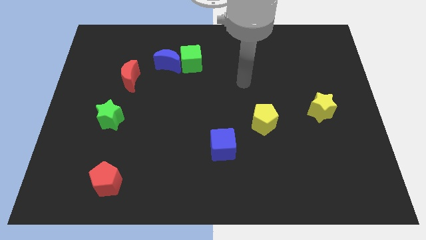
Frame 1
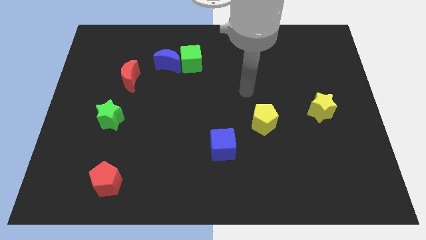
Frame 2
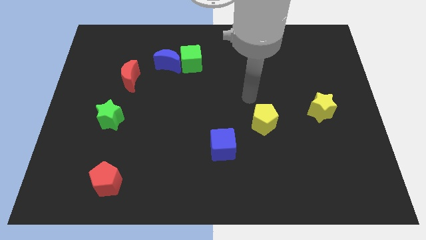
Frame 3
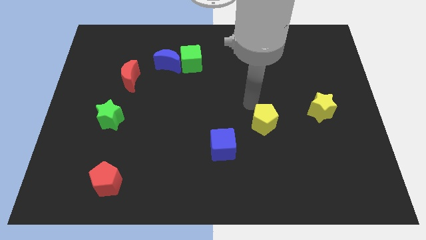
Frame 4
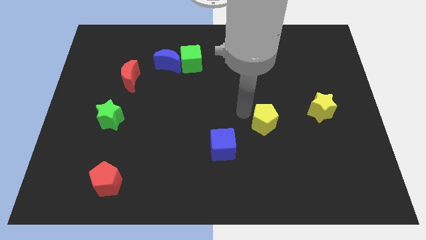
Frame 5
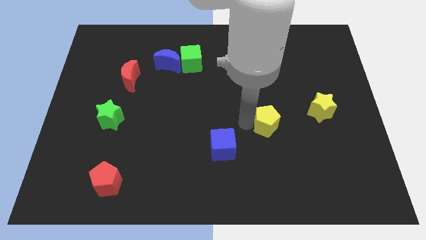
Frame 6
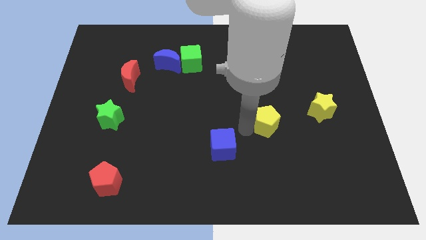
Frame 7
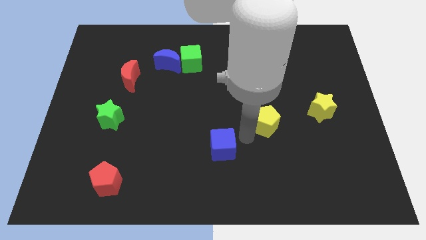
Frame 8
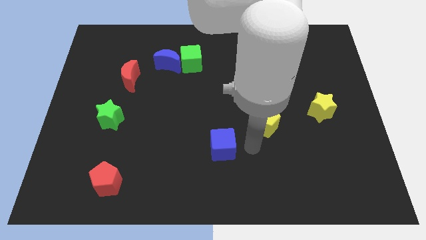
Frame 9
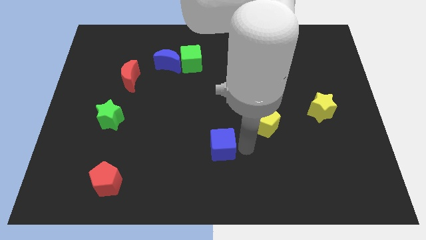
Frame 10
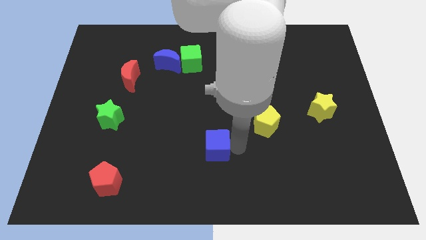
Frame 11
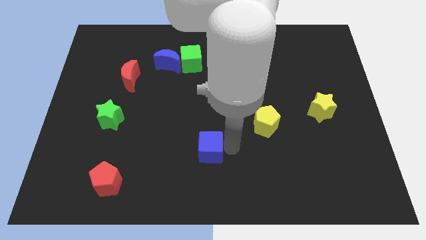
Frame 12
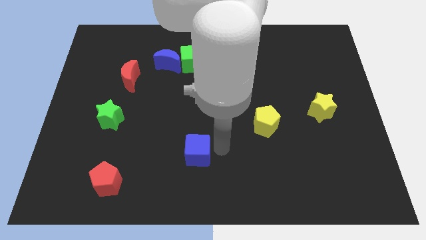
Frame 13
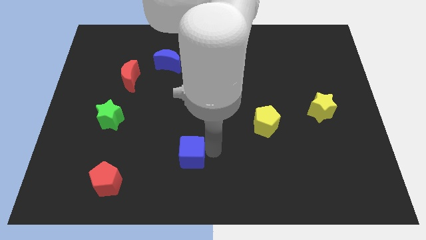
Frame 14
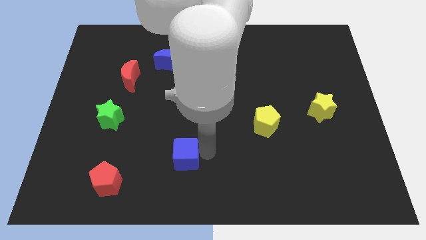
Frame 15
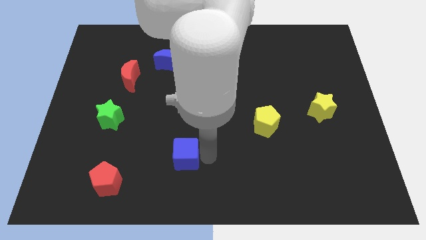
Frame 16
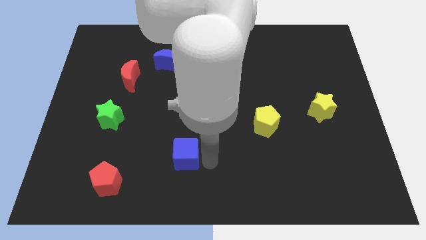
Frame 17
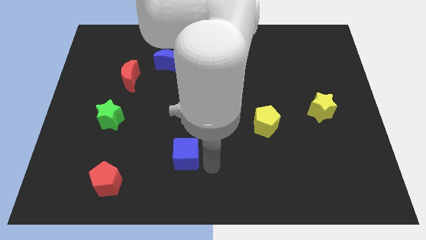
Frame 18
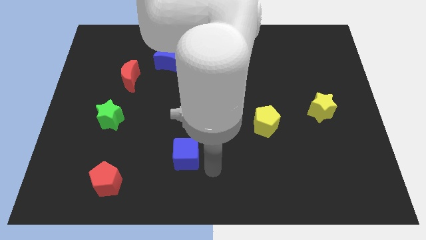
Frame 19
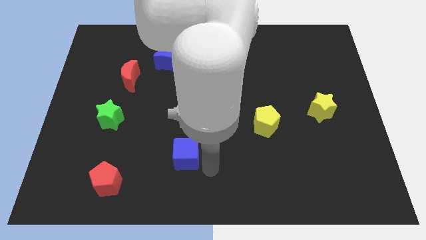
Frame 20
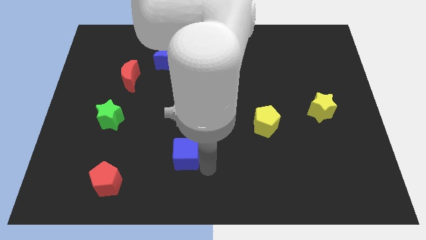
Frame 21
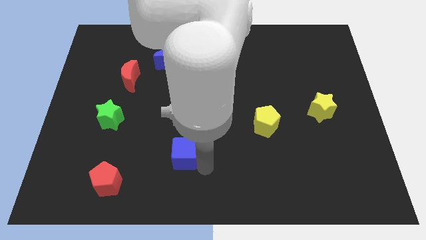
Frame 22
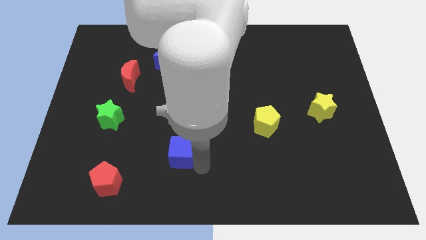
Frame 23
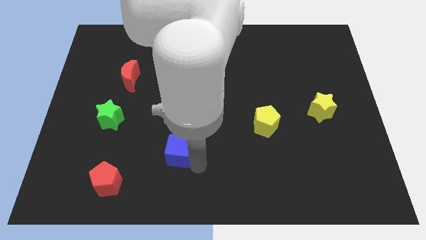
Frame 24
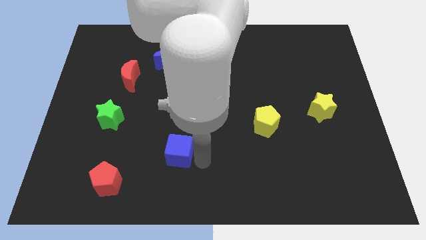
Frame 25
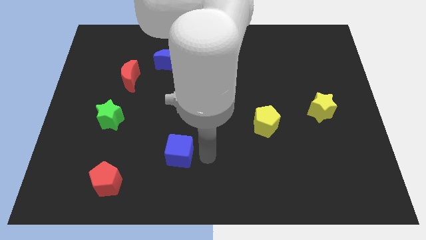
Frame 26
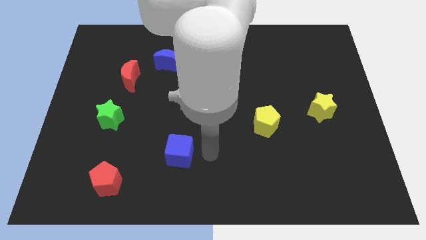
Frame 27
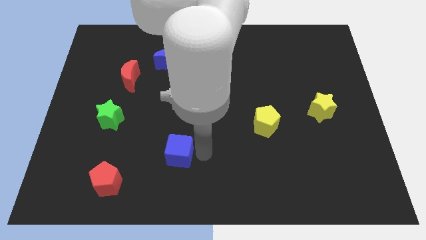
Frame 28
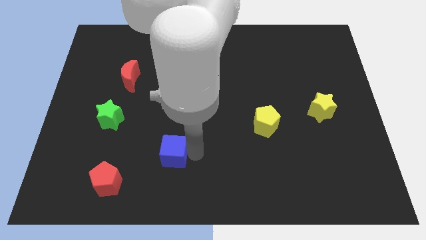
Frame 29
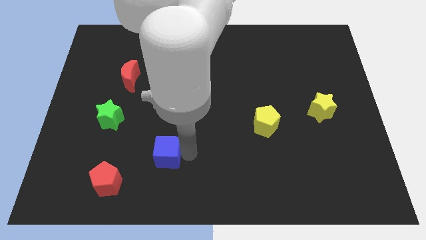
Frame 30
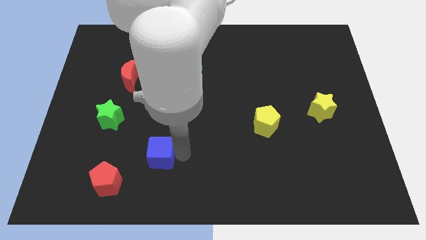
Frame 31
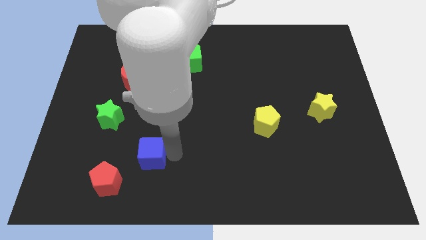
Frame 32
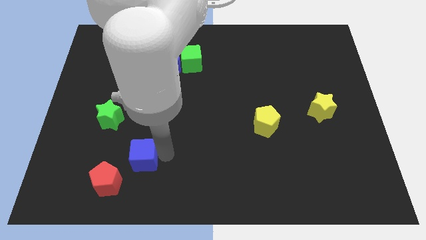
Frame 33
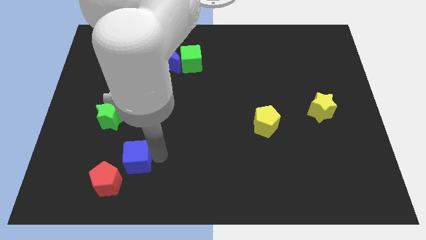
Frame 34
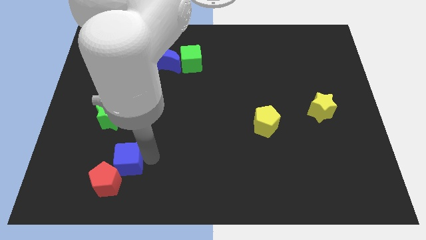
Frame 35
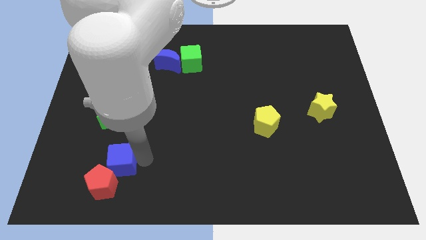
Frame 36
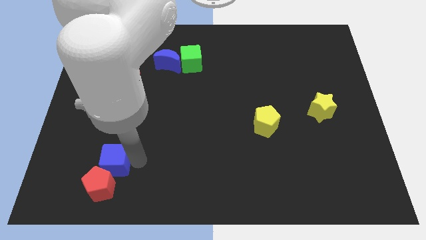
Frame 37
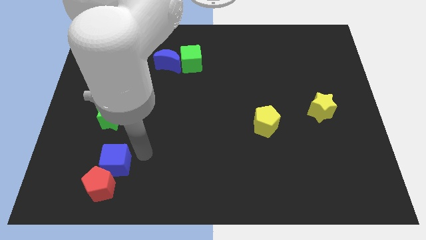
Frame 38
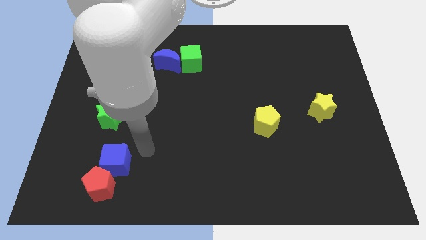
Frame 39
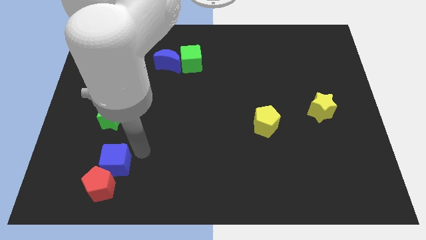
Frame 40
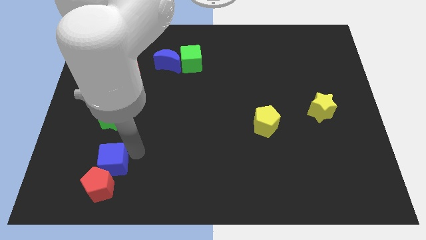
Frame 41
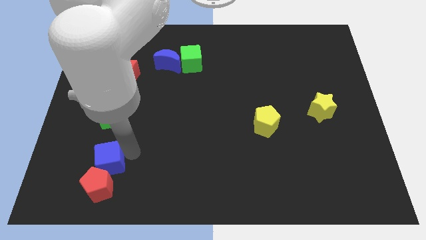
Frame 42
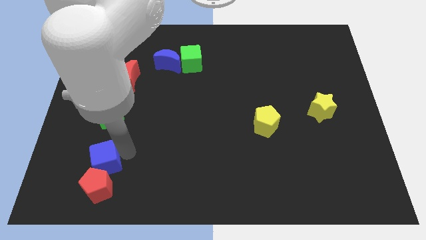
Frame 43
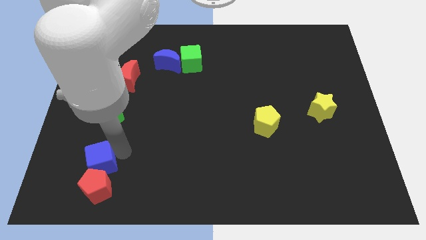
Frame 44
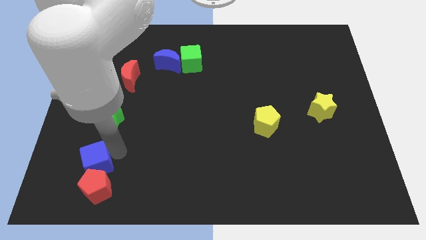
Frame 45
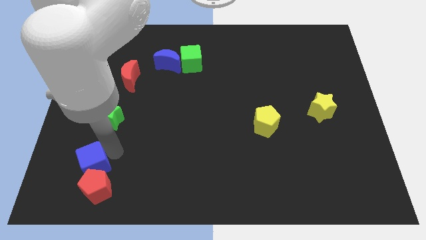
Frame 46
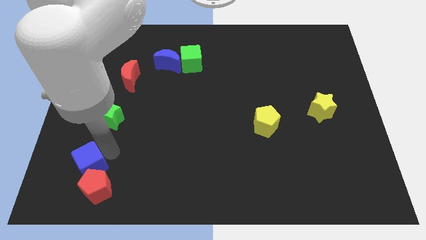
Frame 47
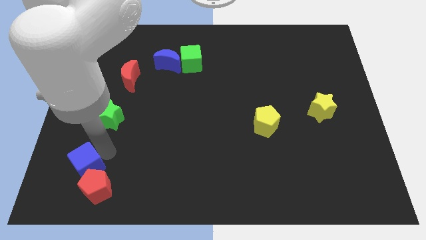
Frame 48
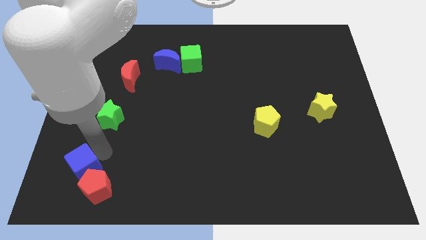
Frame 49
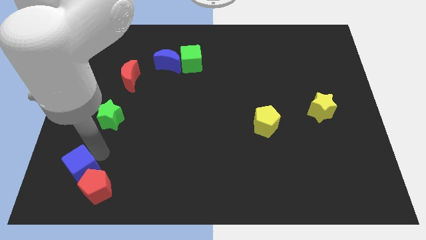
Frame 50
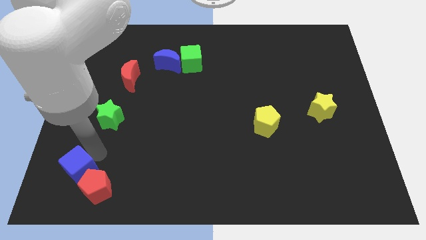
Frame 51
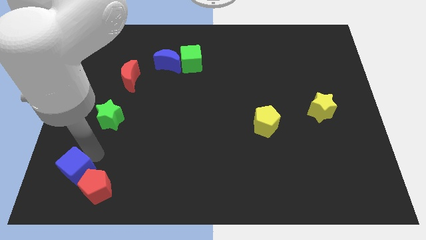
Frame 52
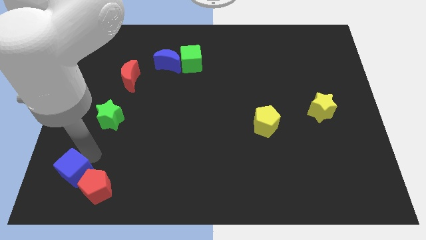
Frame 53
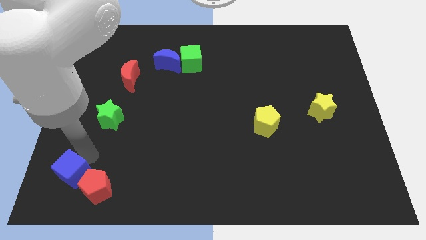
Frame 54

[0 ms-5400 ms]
slide the blue cube to the bottom left corner

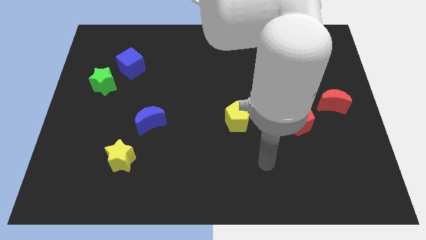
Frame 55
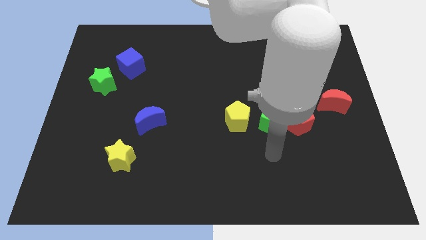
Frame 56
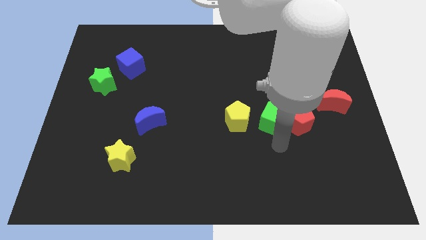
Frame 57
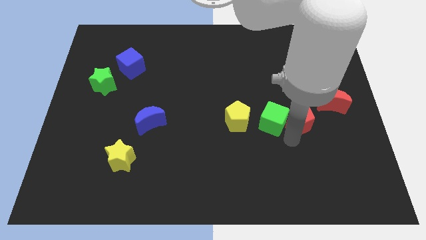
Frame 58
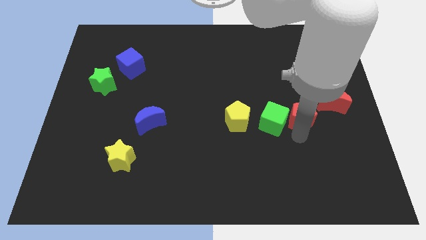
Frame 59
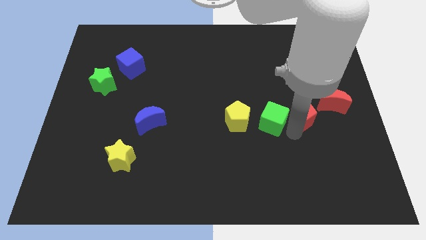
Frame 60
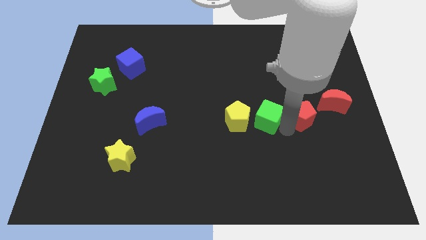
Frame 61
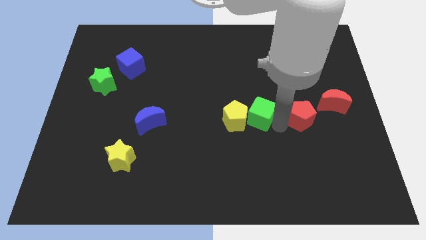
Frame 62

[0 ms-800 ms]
move the green cube to the center of the board
